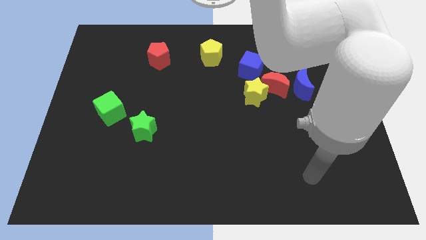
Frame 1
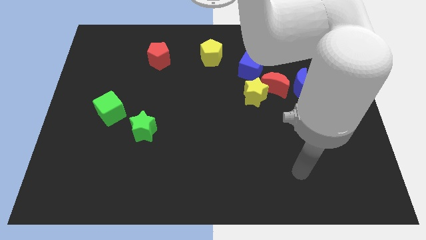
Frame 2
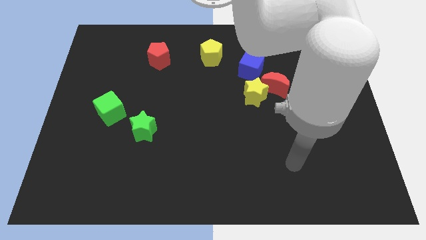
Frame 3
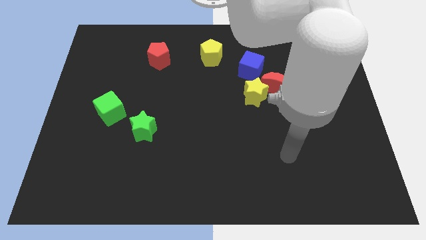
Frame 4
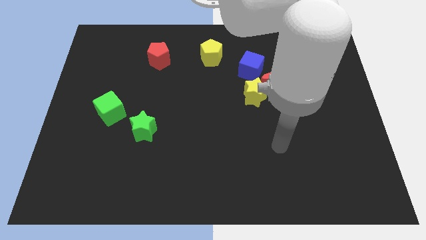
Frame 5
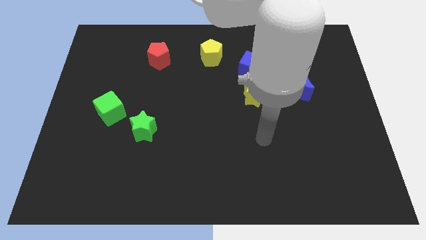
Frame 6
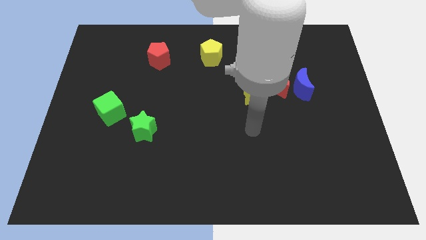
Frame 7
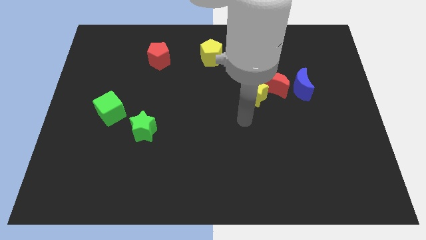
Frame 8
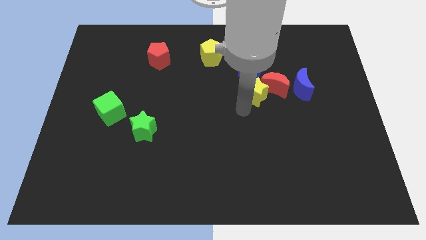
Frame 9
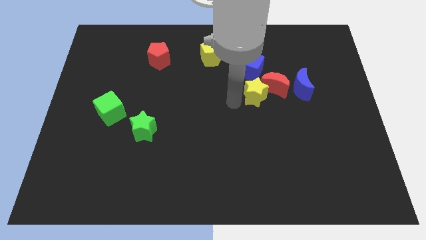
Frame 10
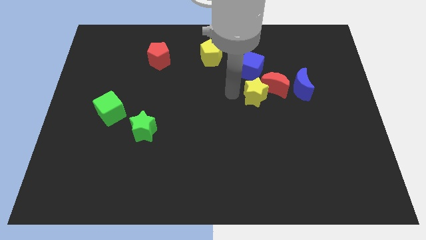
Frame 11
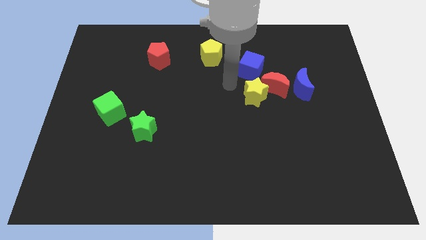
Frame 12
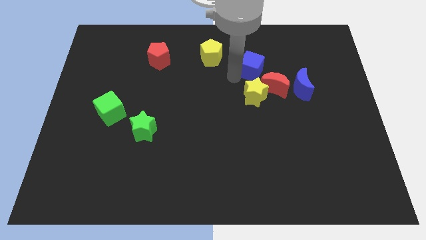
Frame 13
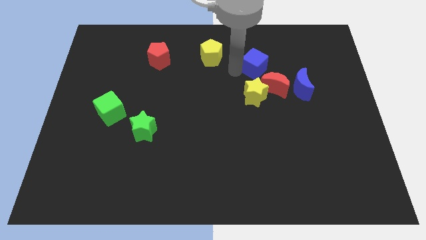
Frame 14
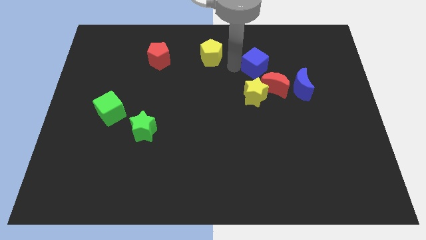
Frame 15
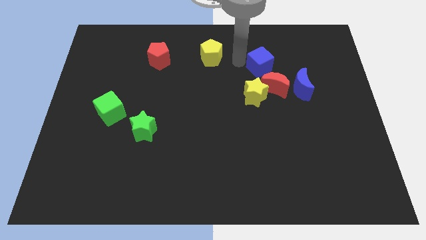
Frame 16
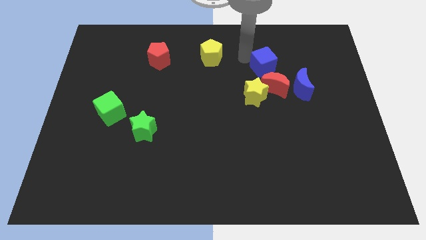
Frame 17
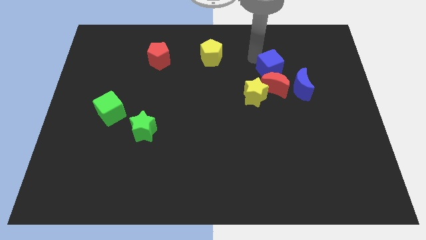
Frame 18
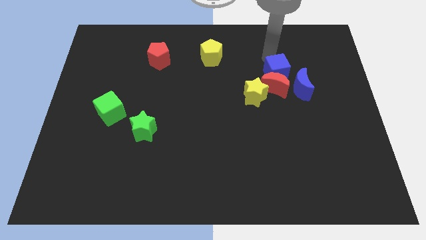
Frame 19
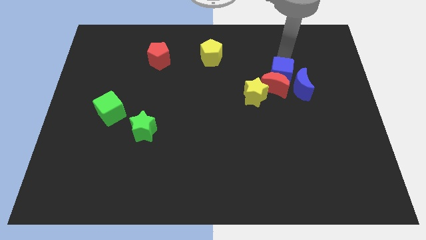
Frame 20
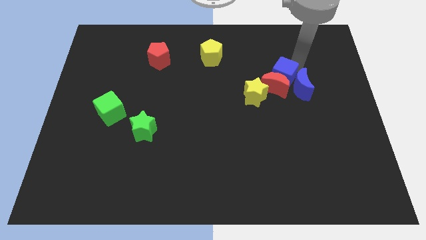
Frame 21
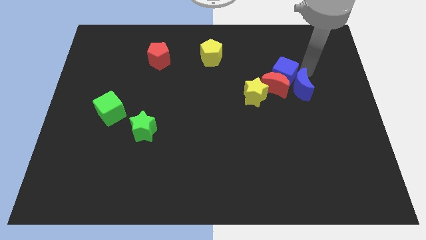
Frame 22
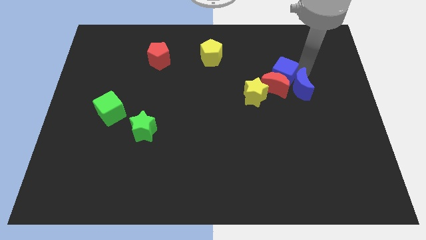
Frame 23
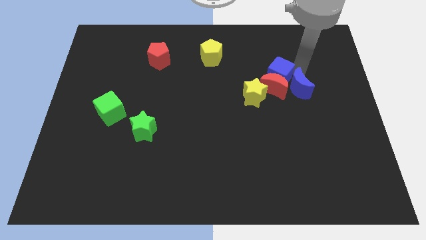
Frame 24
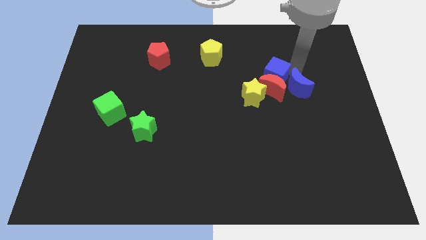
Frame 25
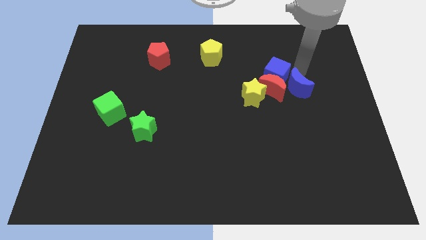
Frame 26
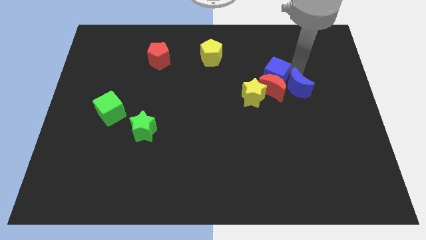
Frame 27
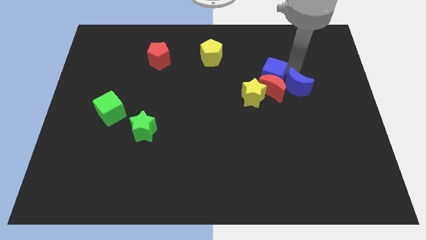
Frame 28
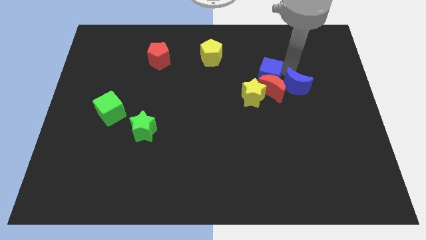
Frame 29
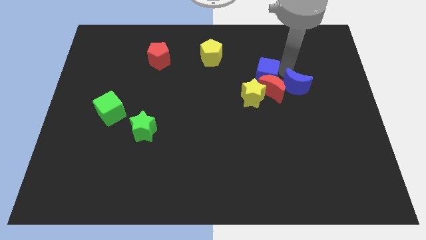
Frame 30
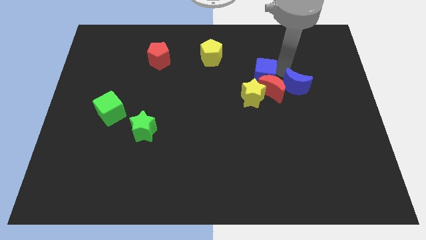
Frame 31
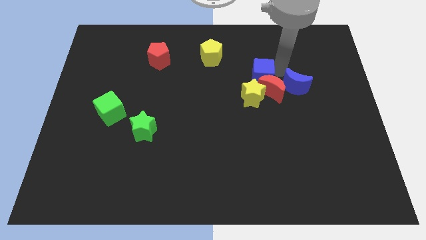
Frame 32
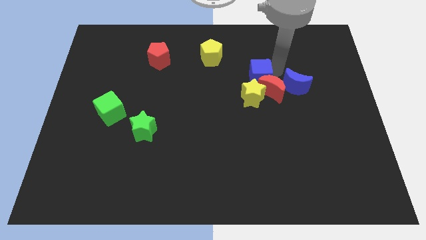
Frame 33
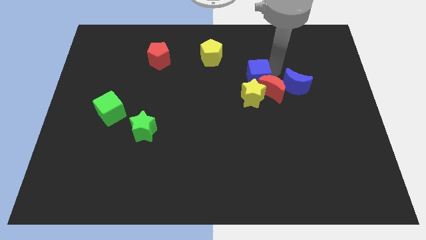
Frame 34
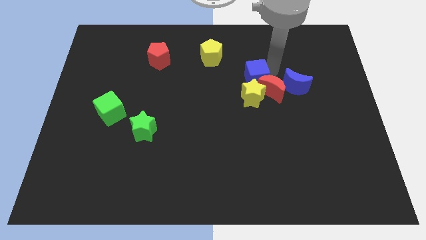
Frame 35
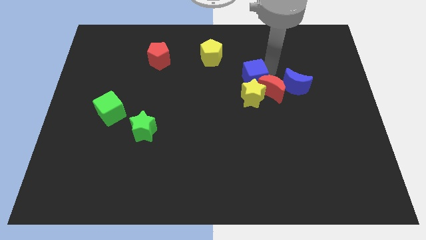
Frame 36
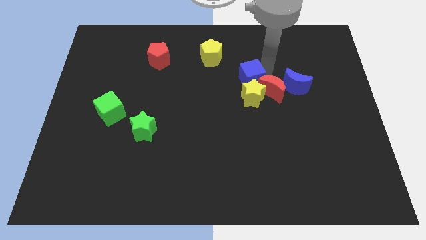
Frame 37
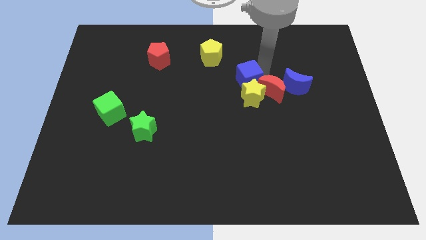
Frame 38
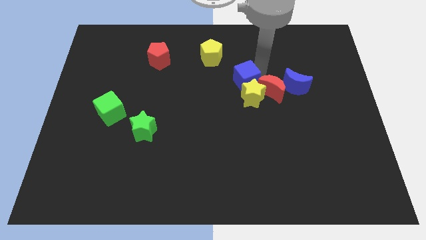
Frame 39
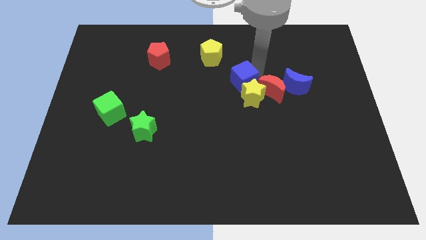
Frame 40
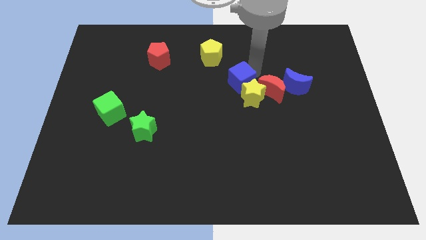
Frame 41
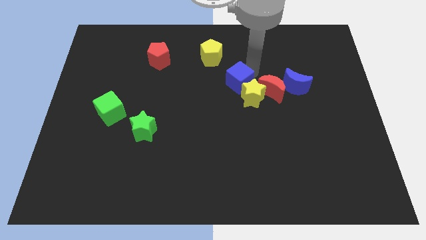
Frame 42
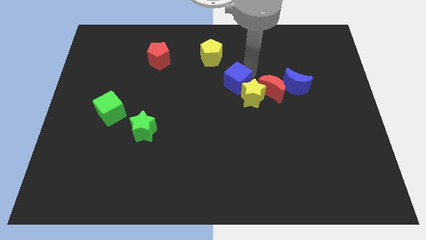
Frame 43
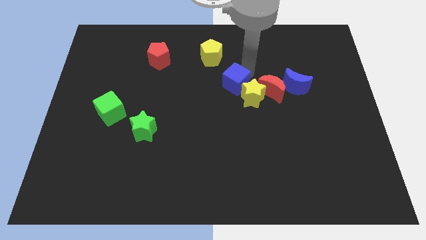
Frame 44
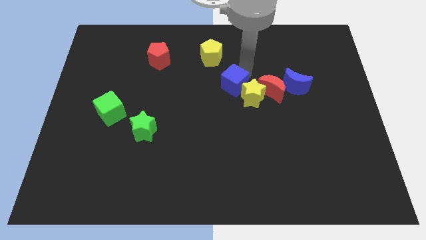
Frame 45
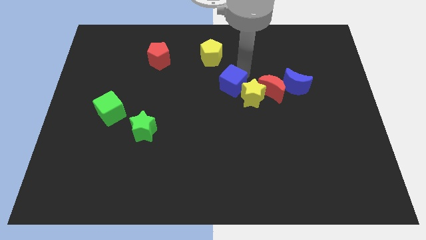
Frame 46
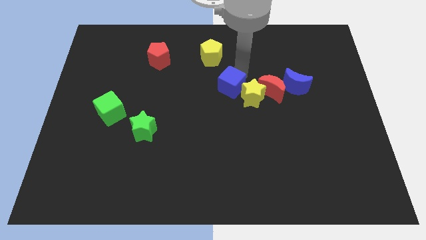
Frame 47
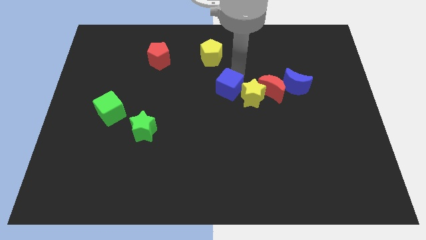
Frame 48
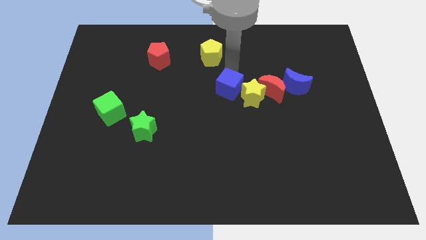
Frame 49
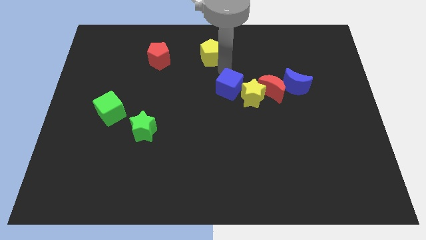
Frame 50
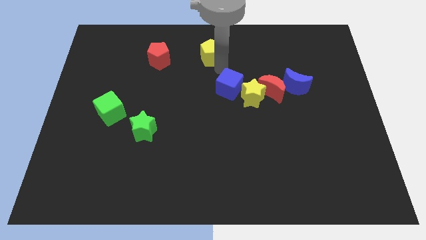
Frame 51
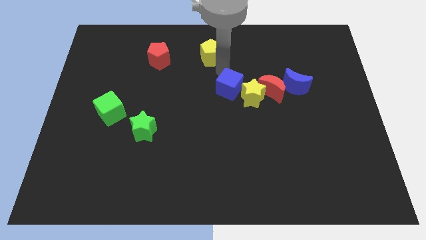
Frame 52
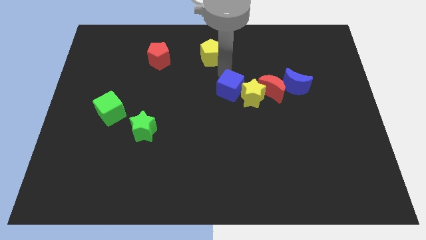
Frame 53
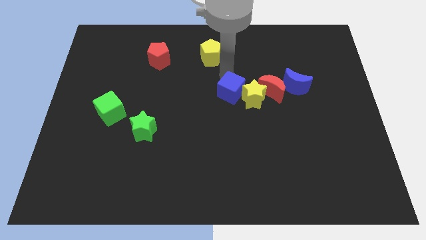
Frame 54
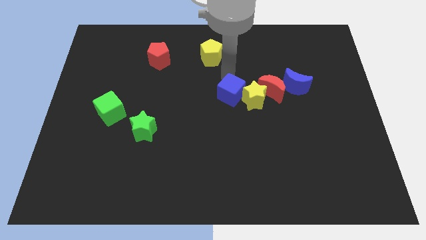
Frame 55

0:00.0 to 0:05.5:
slightly push the blue cube down

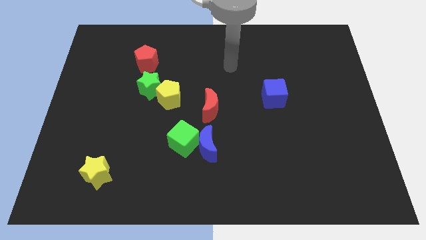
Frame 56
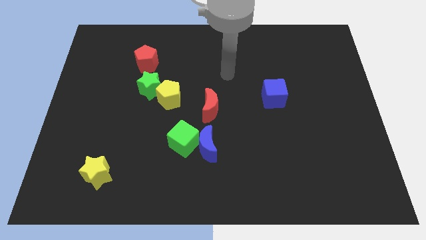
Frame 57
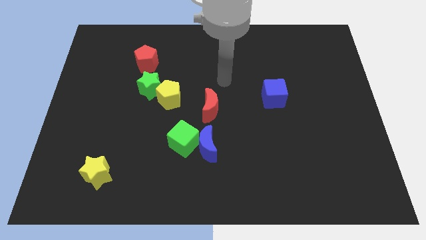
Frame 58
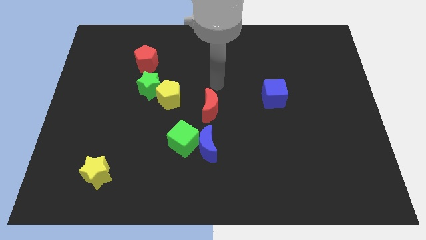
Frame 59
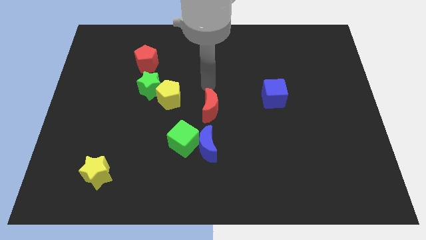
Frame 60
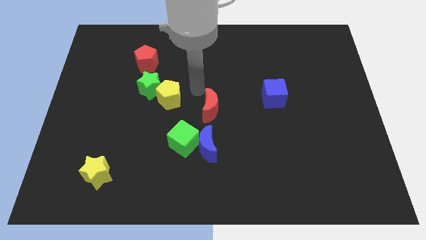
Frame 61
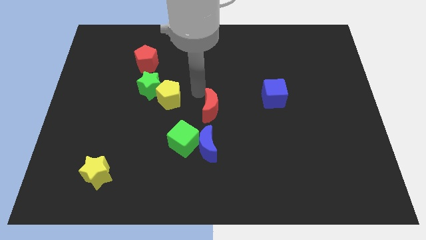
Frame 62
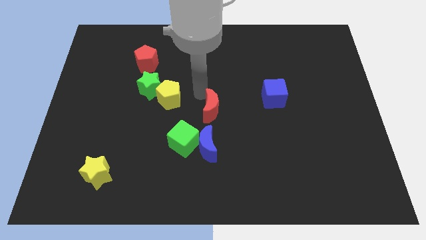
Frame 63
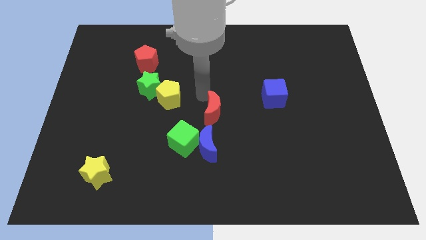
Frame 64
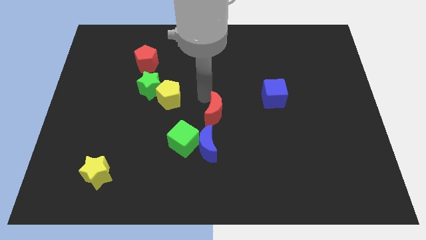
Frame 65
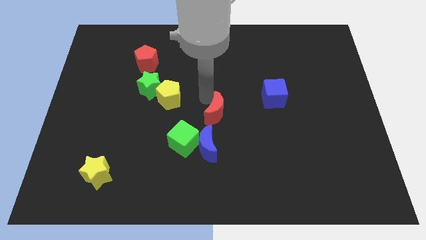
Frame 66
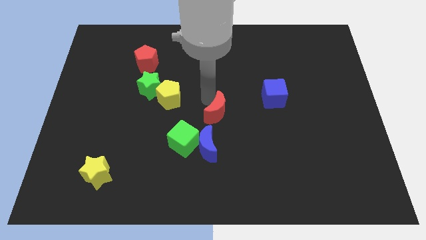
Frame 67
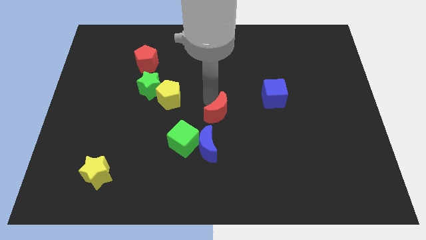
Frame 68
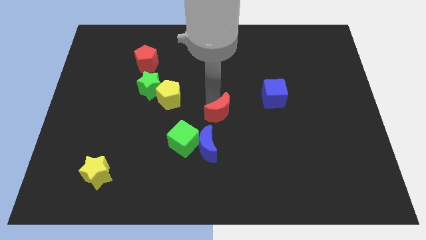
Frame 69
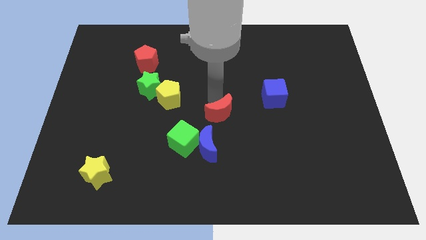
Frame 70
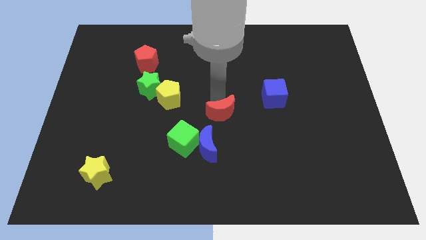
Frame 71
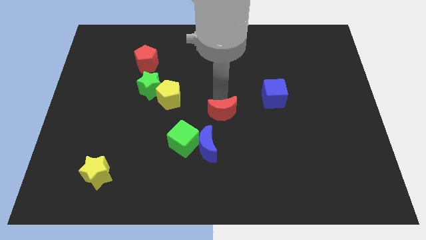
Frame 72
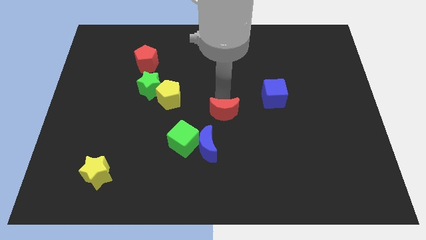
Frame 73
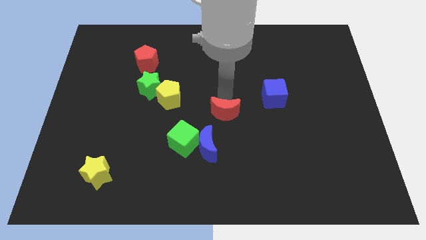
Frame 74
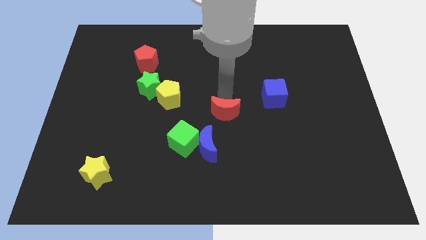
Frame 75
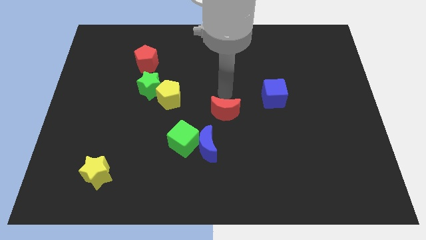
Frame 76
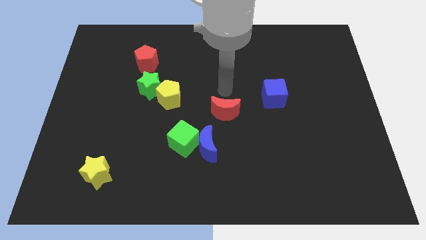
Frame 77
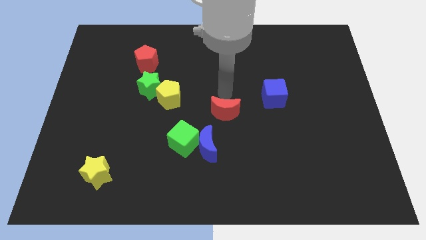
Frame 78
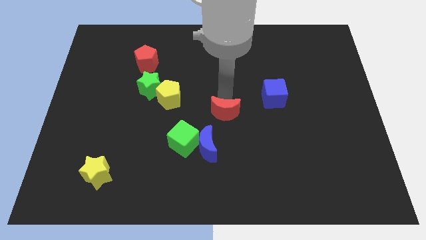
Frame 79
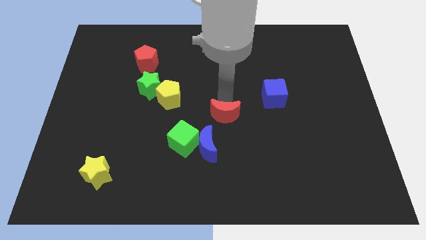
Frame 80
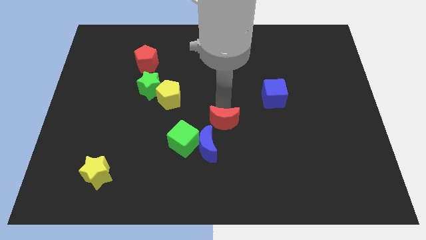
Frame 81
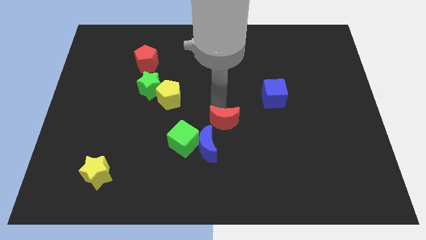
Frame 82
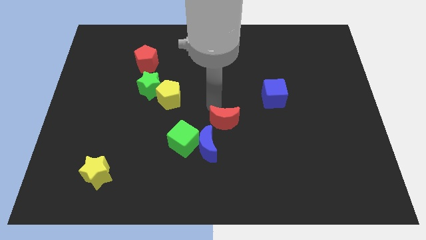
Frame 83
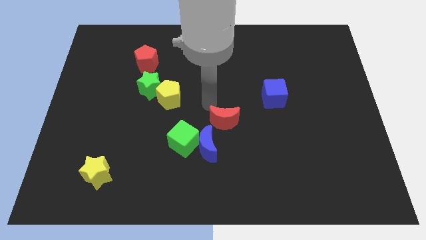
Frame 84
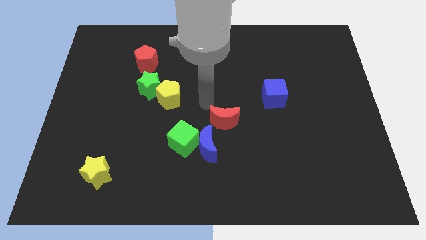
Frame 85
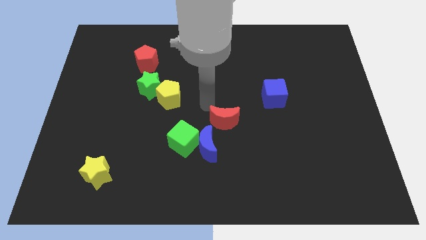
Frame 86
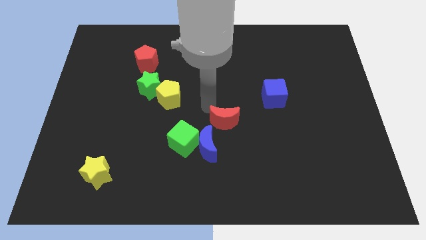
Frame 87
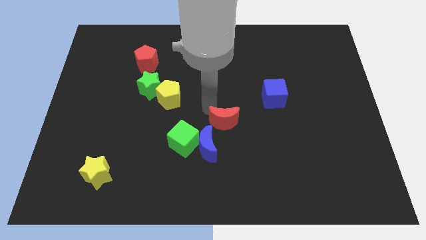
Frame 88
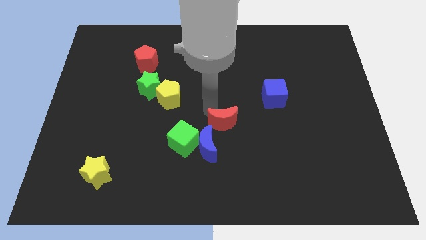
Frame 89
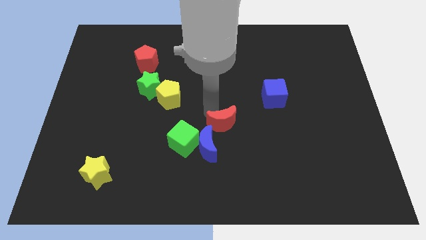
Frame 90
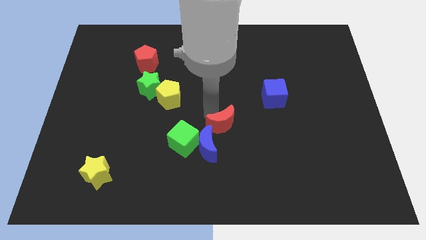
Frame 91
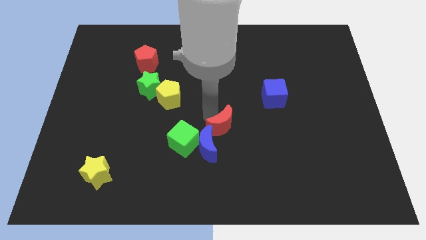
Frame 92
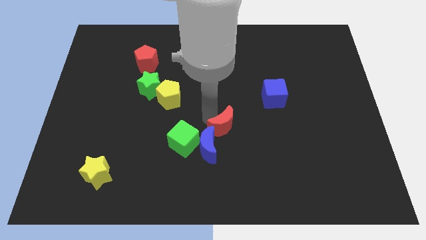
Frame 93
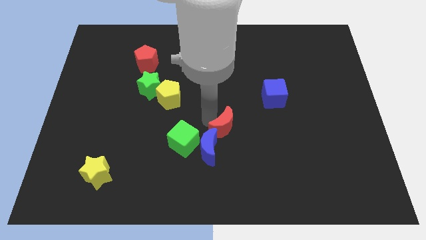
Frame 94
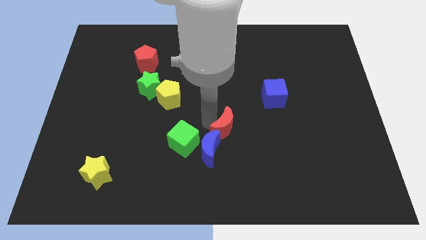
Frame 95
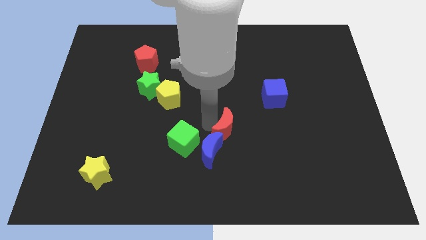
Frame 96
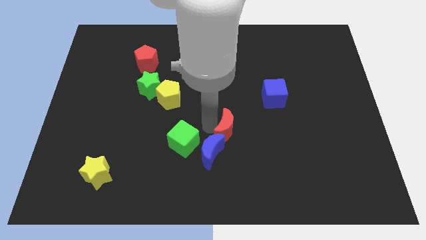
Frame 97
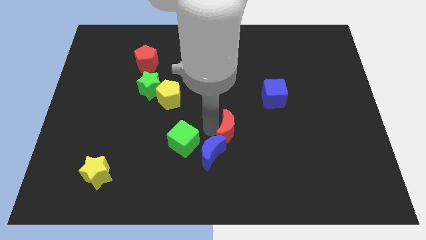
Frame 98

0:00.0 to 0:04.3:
push the red moon downwards and right a little
